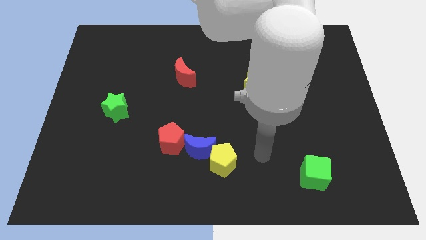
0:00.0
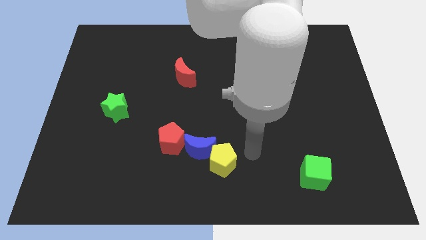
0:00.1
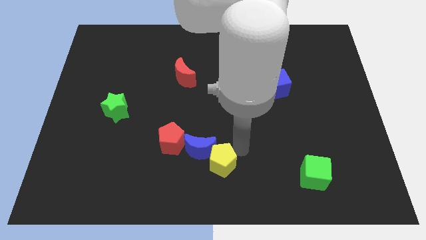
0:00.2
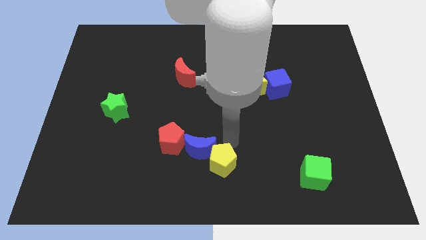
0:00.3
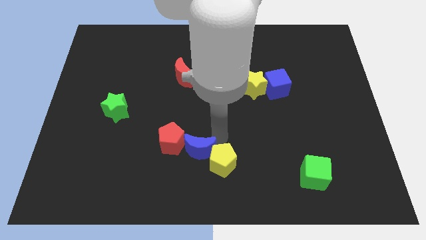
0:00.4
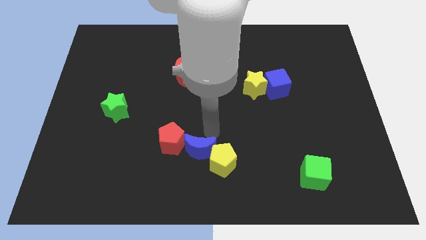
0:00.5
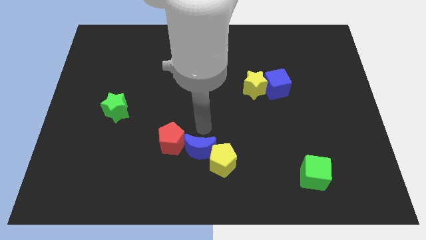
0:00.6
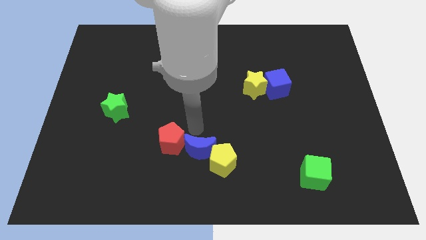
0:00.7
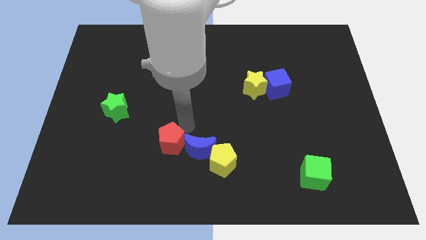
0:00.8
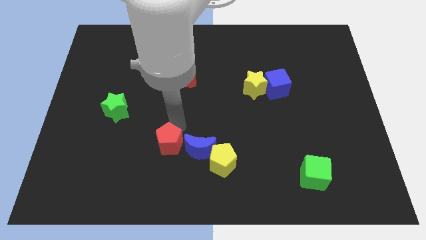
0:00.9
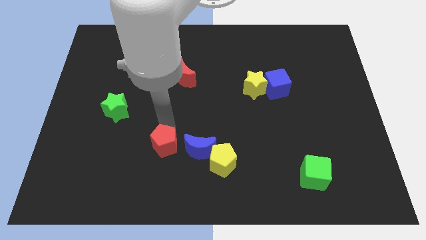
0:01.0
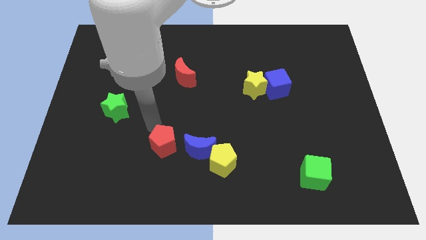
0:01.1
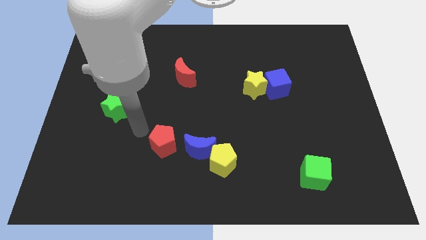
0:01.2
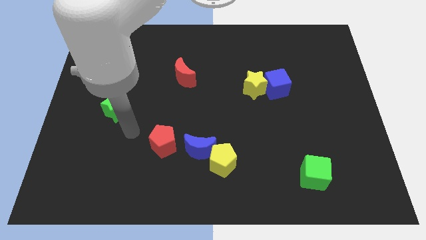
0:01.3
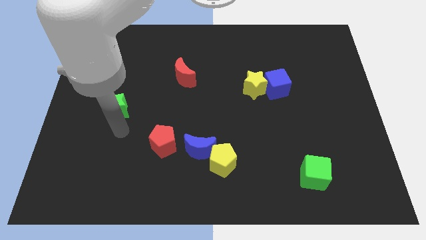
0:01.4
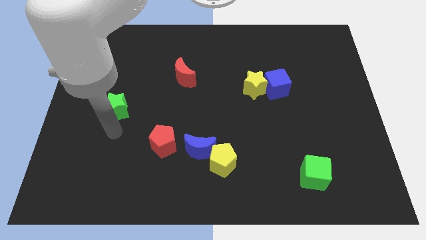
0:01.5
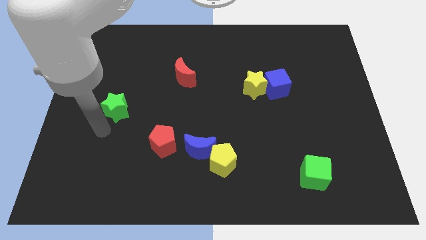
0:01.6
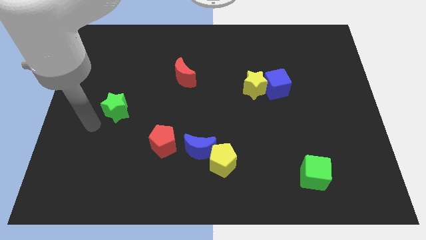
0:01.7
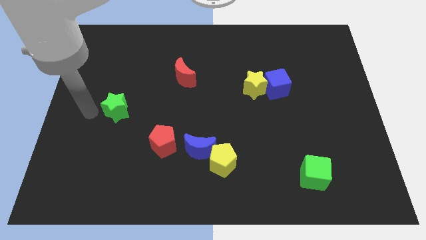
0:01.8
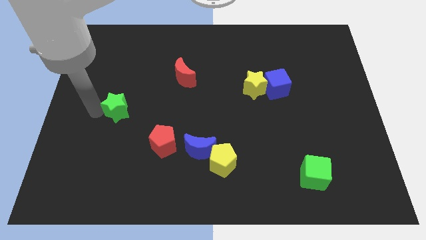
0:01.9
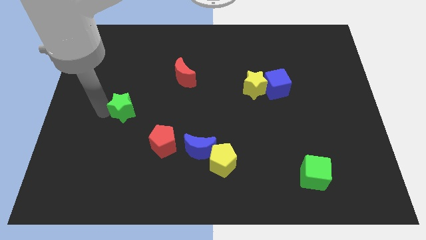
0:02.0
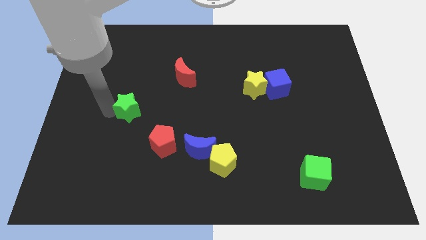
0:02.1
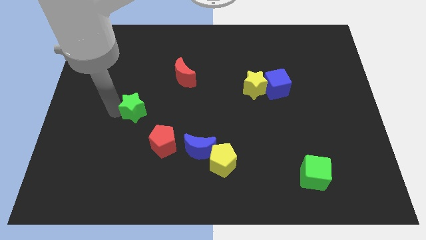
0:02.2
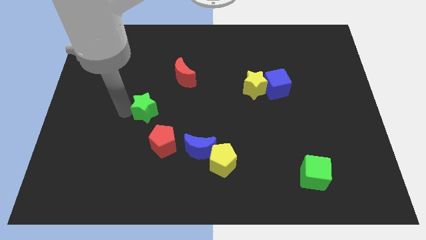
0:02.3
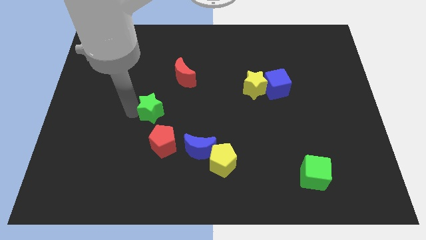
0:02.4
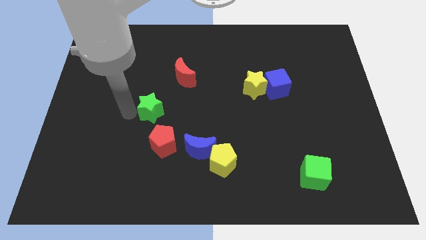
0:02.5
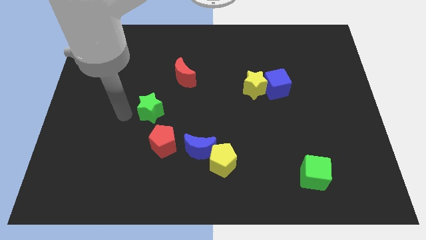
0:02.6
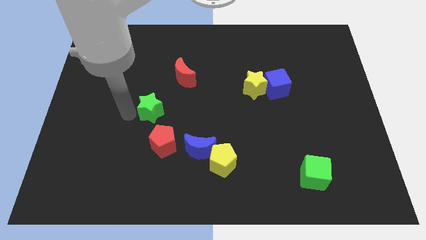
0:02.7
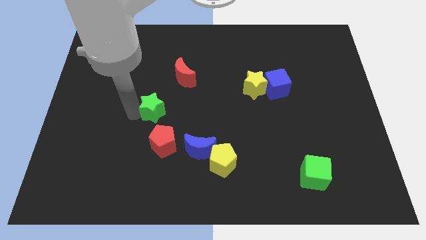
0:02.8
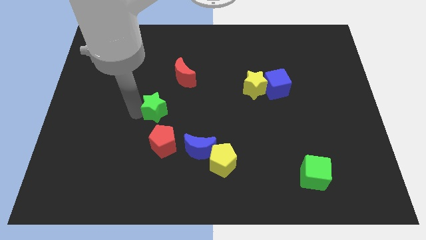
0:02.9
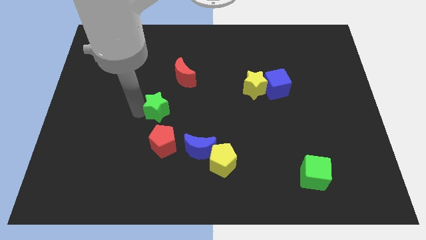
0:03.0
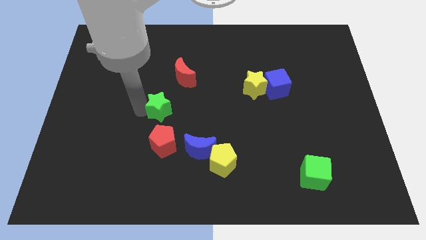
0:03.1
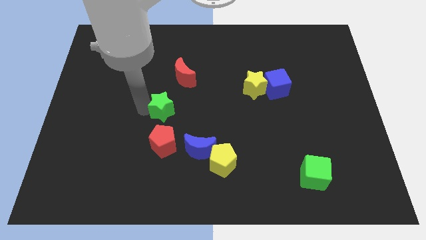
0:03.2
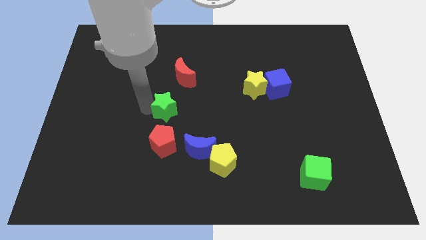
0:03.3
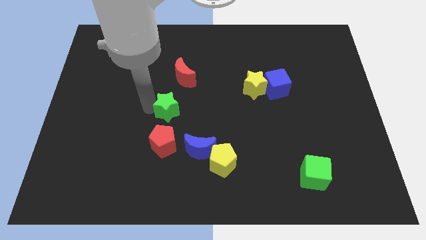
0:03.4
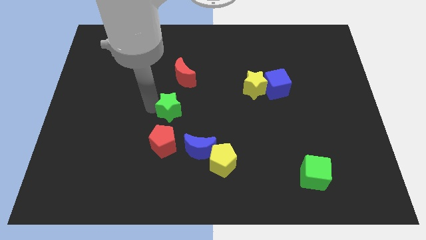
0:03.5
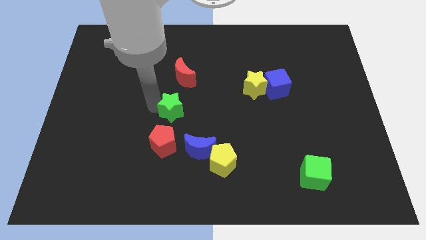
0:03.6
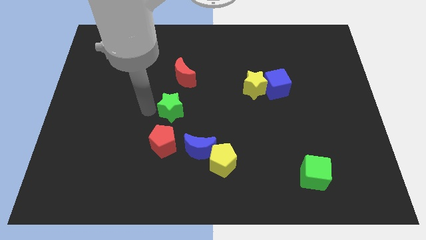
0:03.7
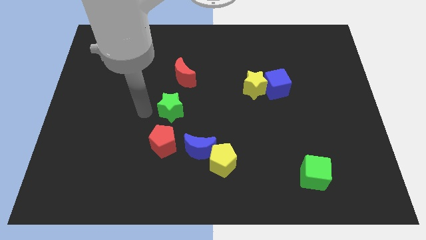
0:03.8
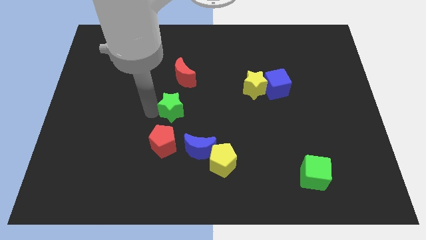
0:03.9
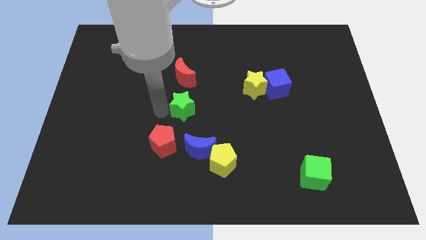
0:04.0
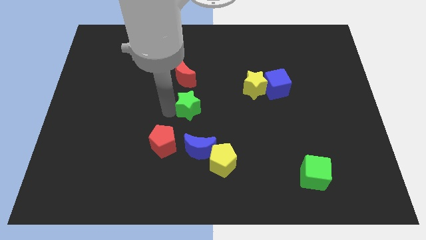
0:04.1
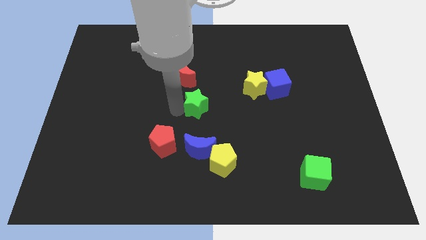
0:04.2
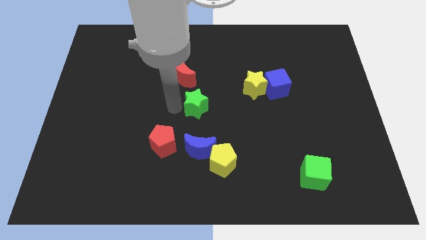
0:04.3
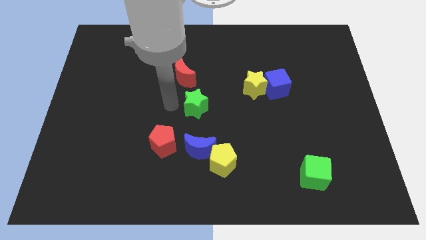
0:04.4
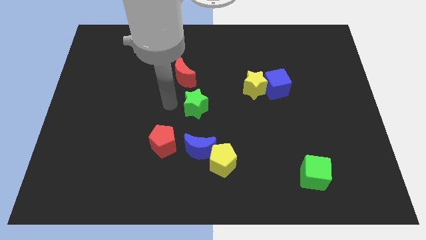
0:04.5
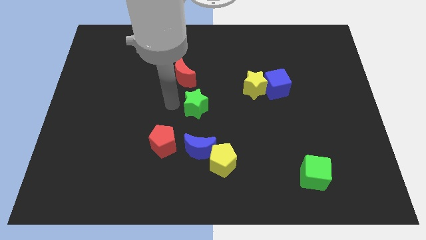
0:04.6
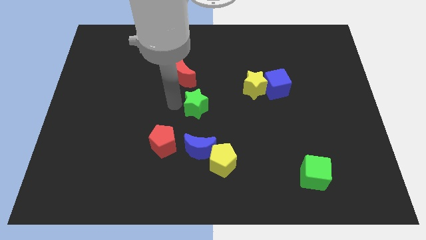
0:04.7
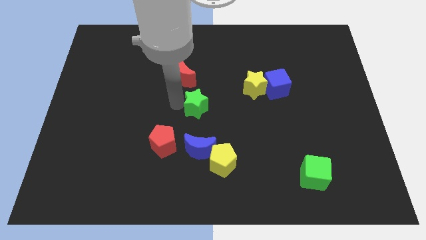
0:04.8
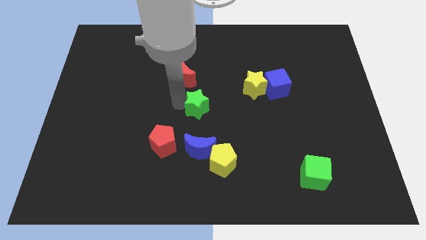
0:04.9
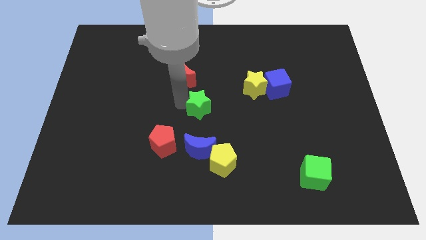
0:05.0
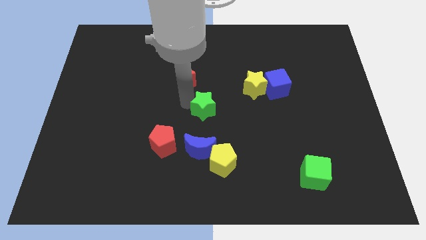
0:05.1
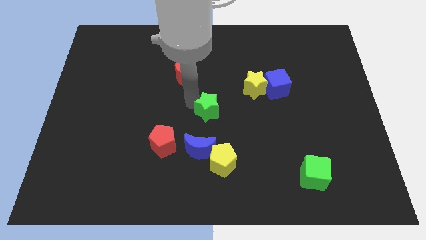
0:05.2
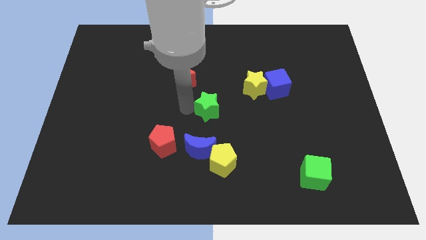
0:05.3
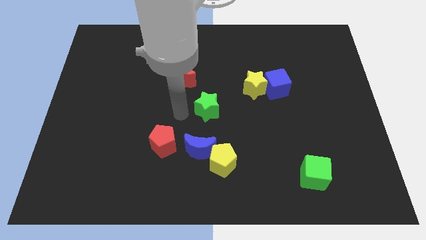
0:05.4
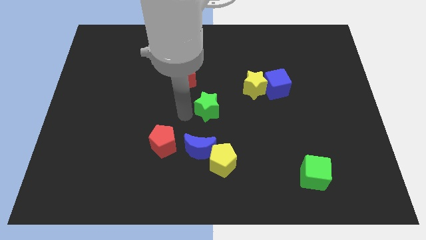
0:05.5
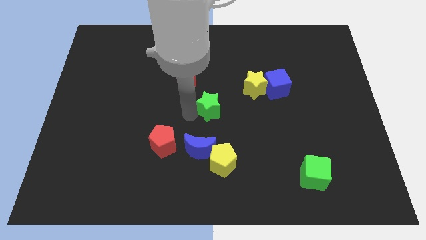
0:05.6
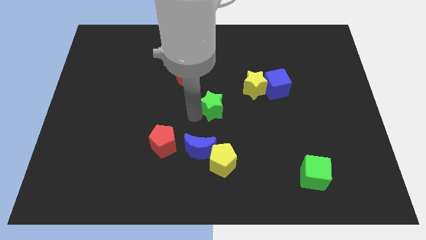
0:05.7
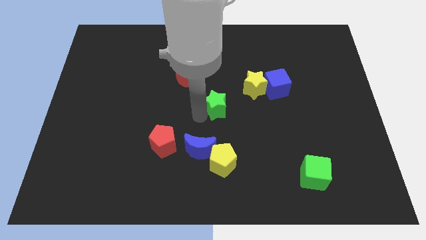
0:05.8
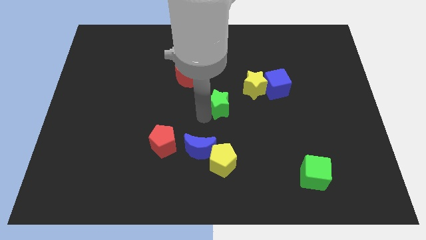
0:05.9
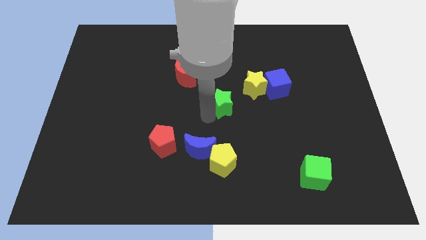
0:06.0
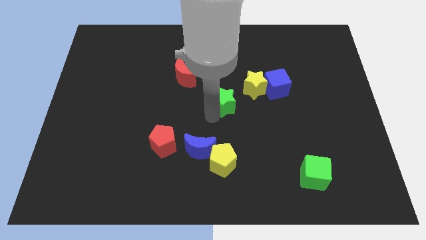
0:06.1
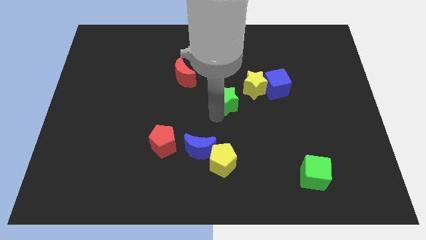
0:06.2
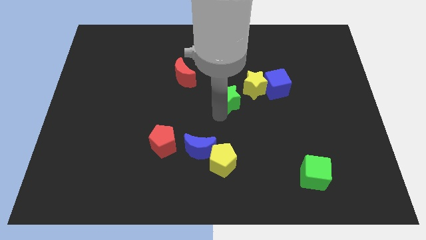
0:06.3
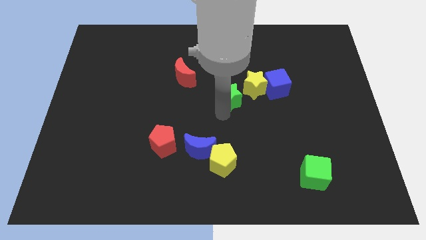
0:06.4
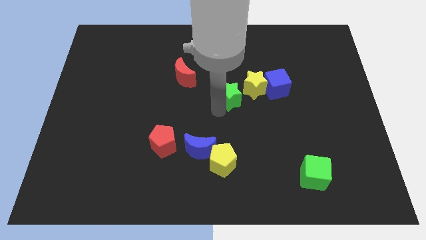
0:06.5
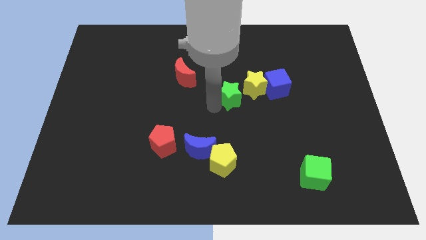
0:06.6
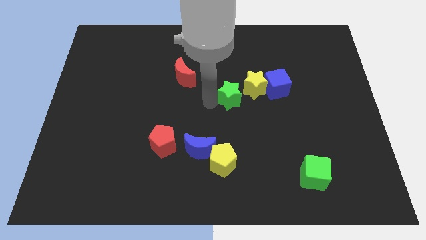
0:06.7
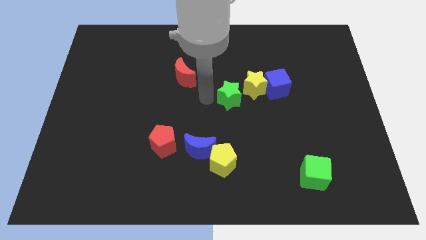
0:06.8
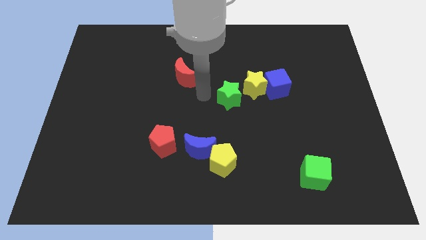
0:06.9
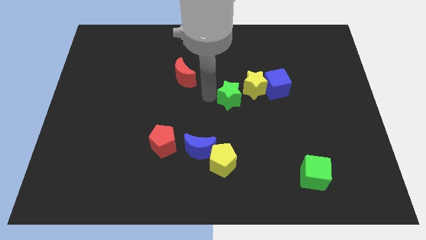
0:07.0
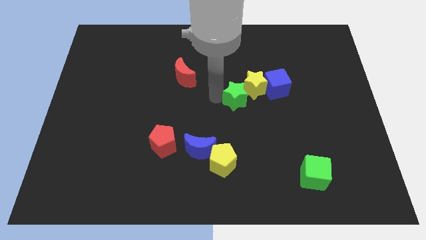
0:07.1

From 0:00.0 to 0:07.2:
move the green star to the bottom left side of the blue cube

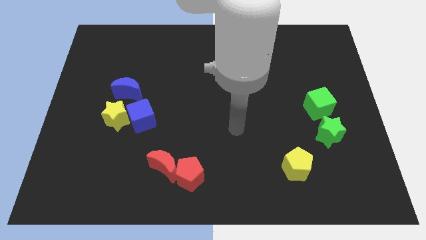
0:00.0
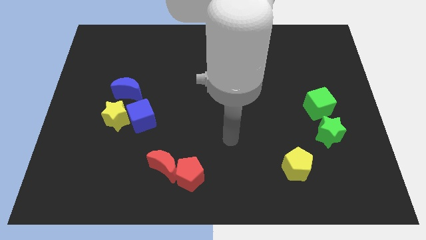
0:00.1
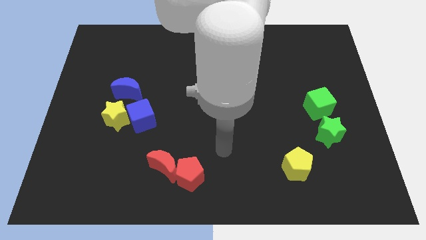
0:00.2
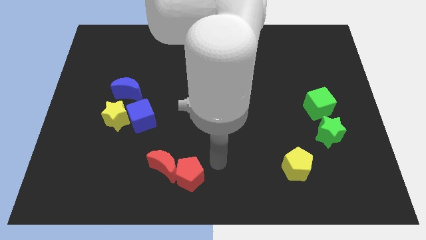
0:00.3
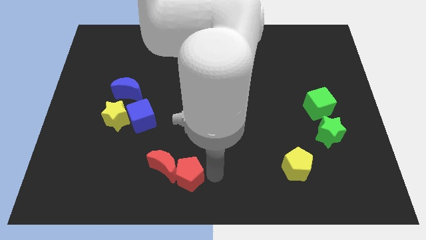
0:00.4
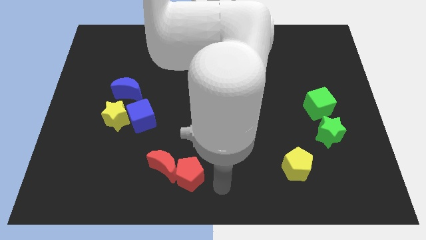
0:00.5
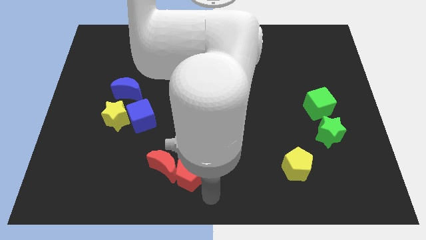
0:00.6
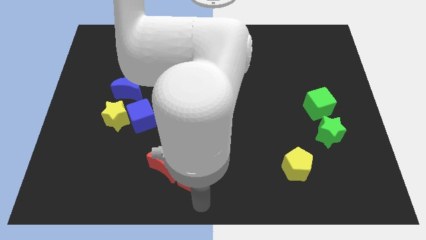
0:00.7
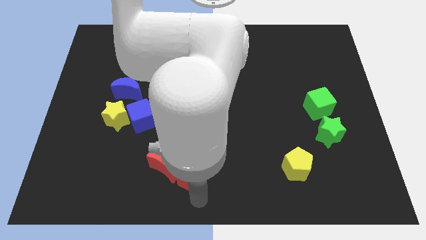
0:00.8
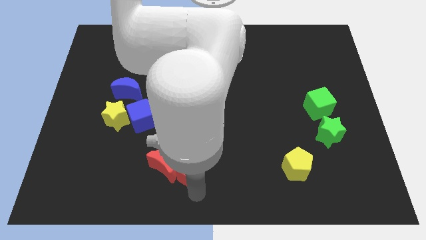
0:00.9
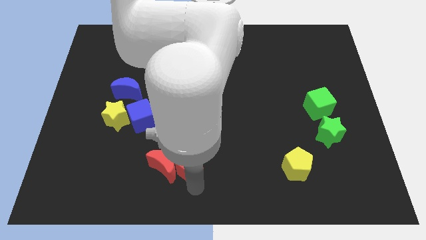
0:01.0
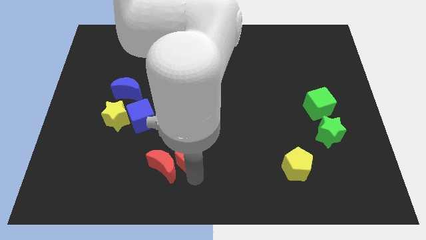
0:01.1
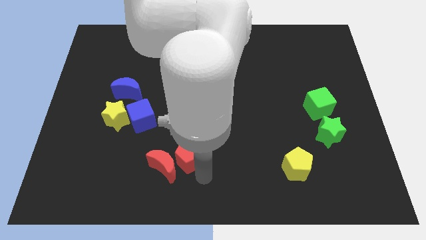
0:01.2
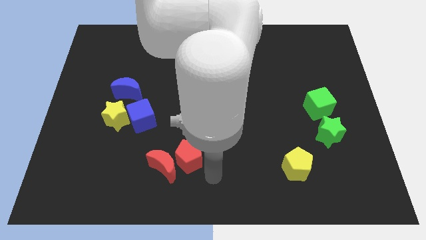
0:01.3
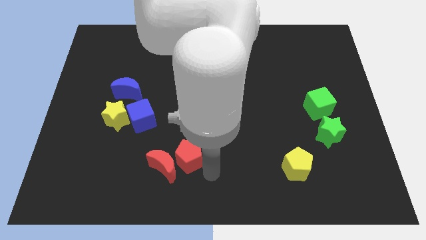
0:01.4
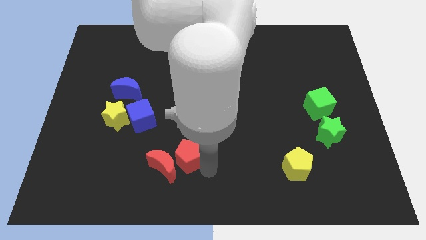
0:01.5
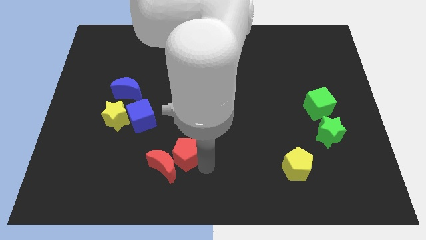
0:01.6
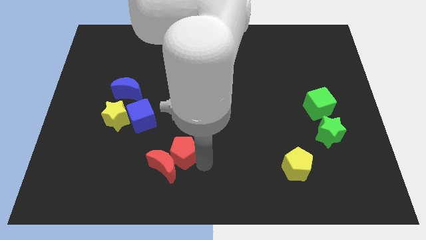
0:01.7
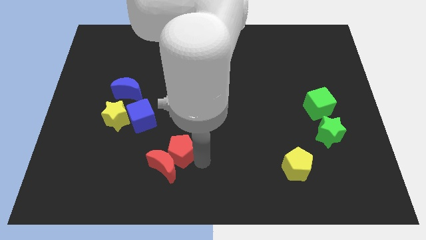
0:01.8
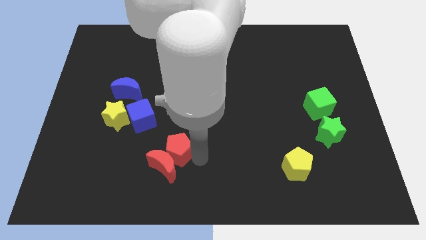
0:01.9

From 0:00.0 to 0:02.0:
put the red pentagon diagonally down and to the right of the blue cube
